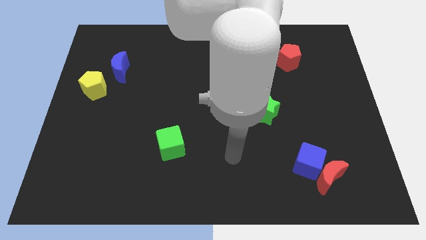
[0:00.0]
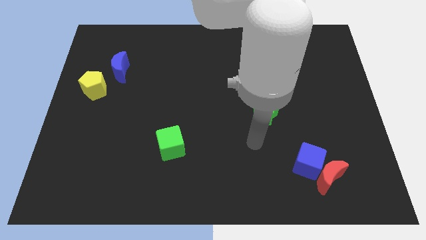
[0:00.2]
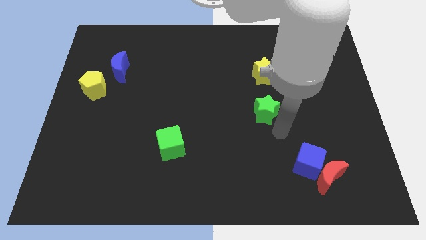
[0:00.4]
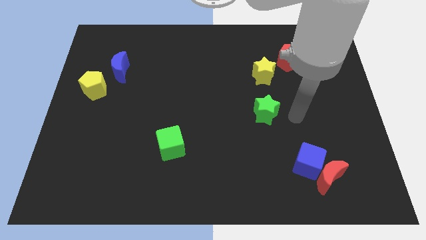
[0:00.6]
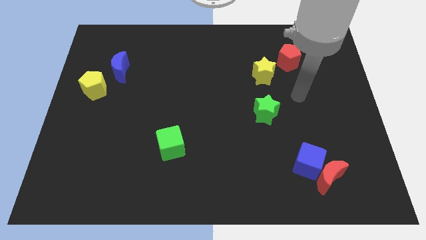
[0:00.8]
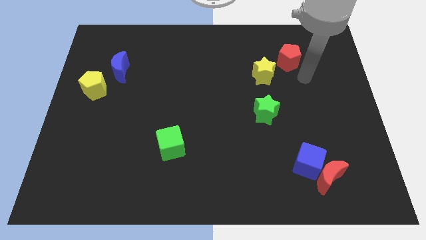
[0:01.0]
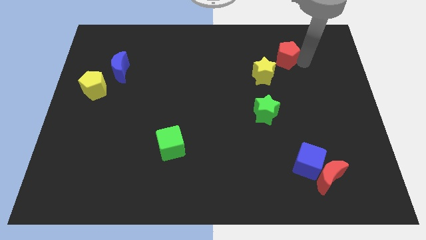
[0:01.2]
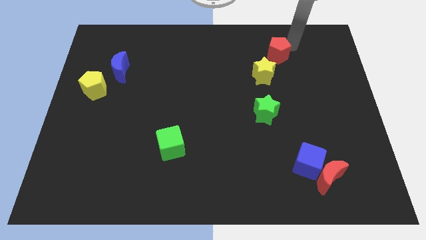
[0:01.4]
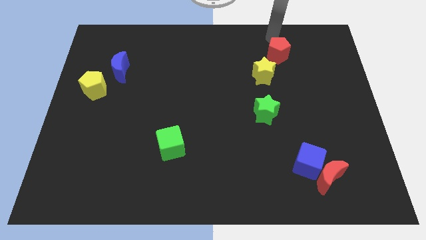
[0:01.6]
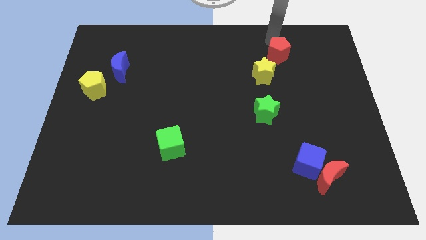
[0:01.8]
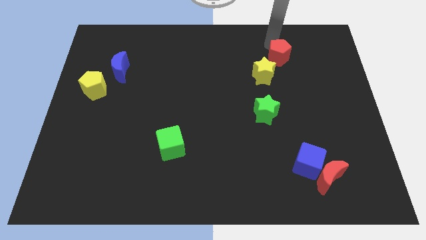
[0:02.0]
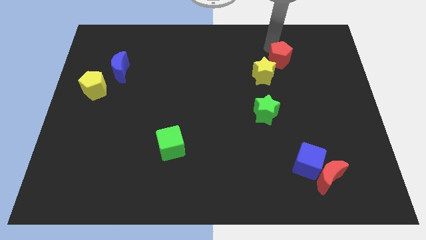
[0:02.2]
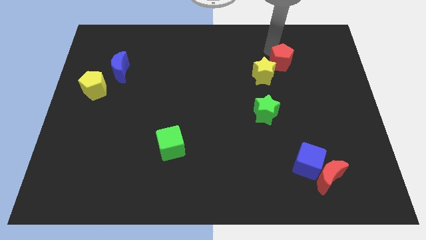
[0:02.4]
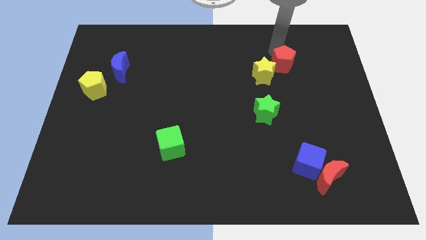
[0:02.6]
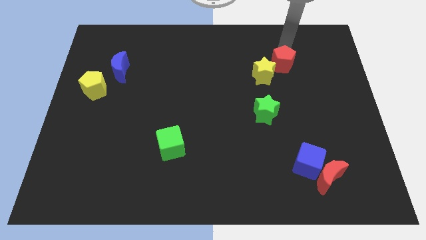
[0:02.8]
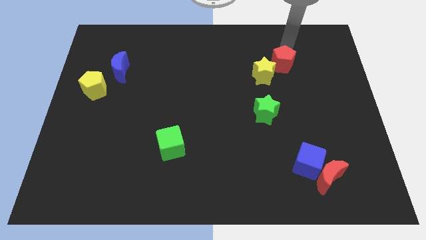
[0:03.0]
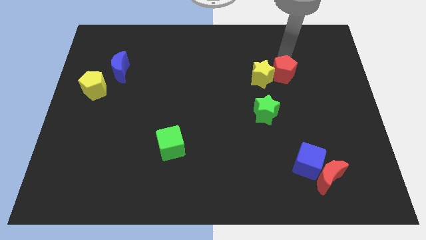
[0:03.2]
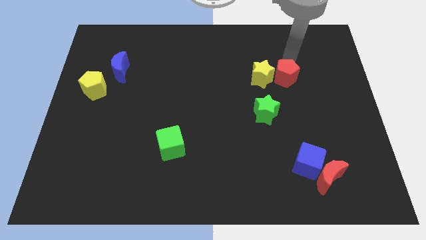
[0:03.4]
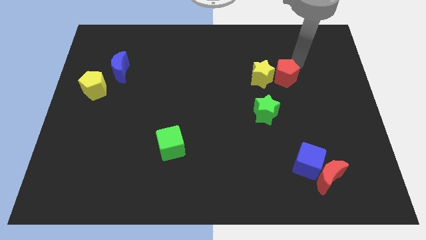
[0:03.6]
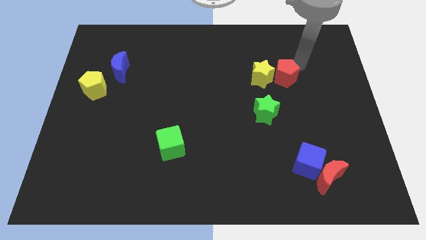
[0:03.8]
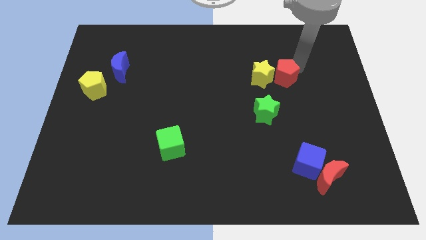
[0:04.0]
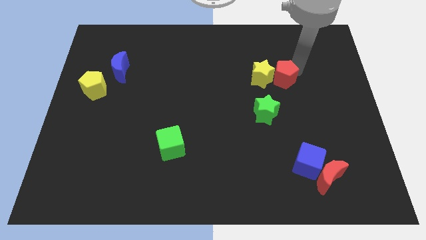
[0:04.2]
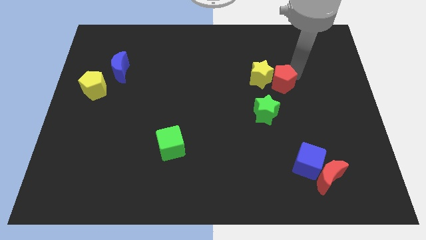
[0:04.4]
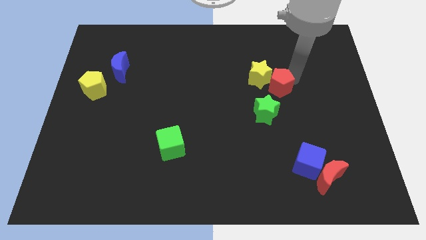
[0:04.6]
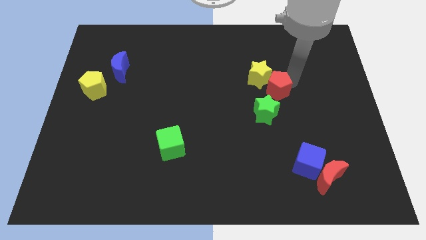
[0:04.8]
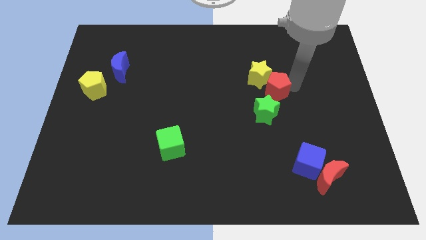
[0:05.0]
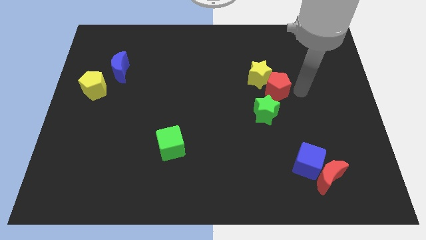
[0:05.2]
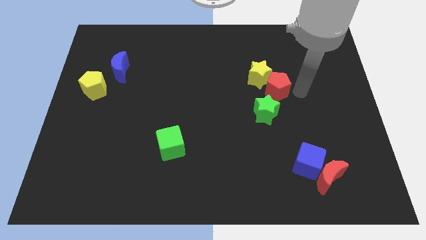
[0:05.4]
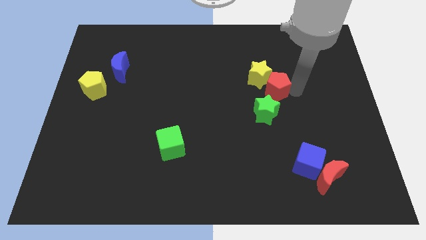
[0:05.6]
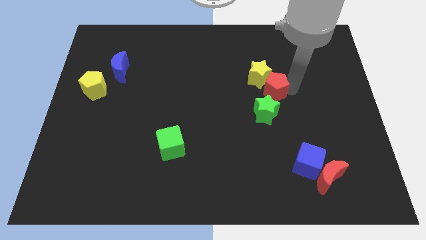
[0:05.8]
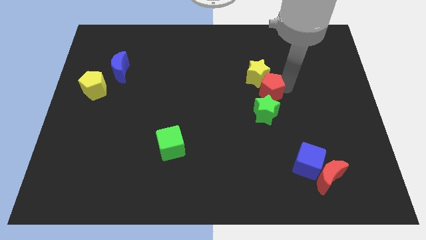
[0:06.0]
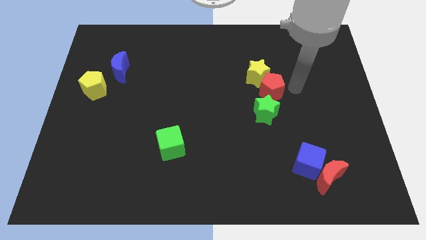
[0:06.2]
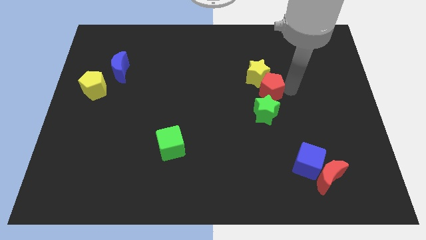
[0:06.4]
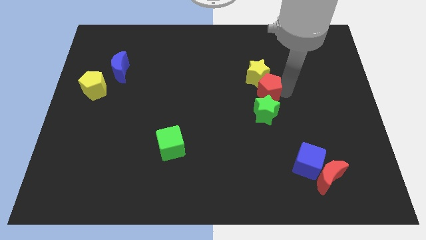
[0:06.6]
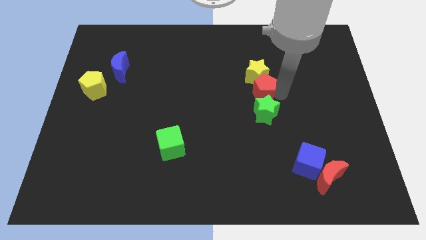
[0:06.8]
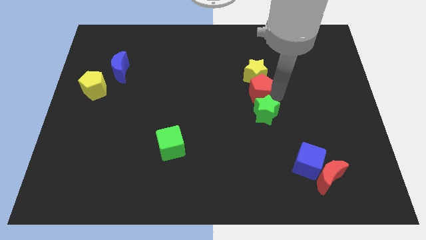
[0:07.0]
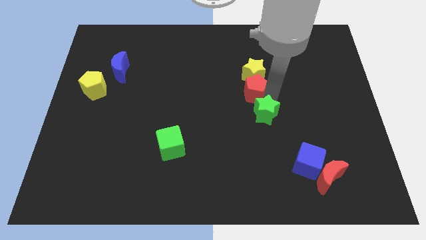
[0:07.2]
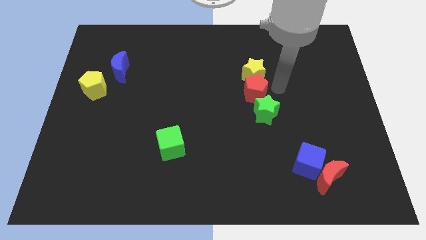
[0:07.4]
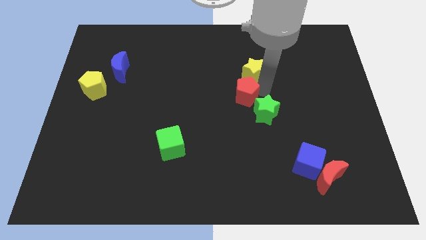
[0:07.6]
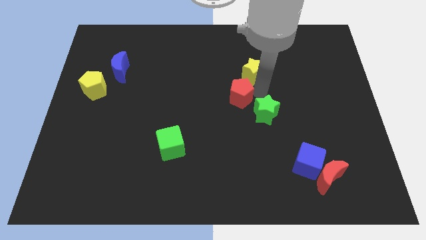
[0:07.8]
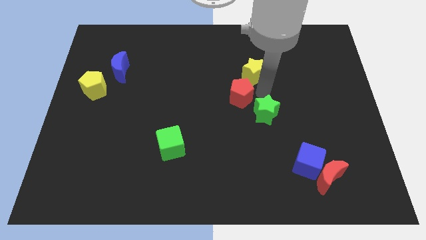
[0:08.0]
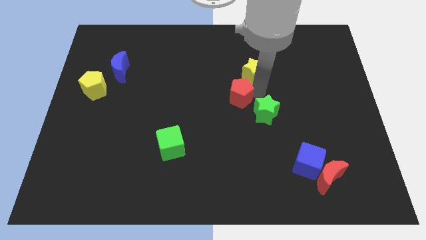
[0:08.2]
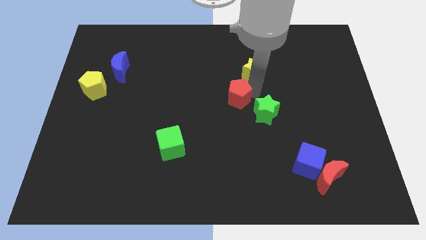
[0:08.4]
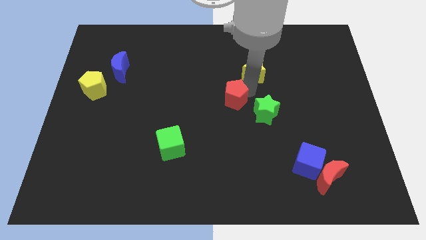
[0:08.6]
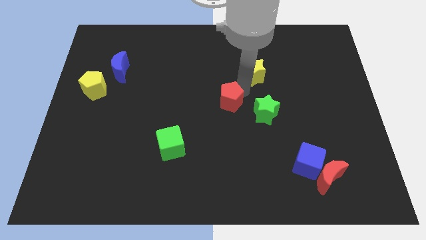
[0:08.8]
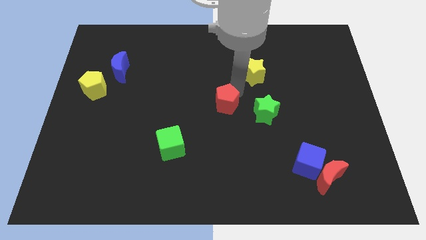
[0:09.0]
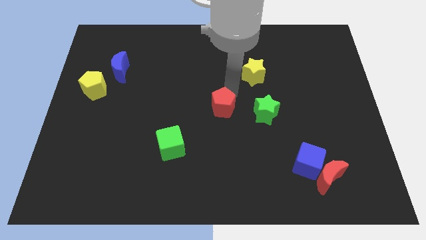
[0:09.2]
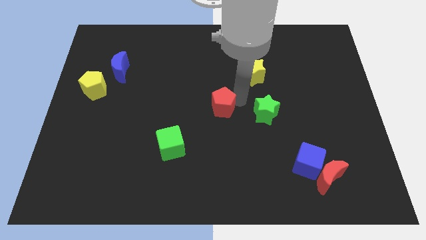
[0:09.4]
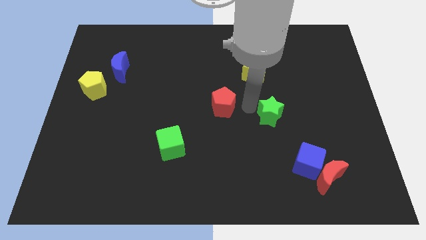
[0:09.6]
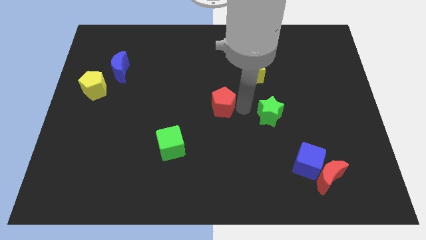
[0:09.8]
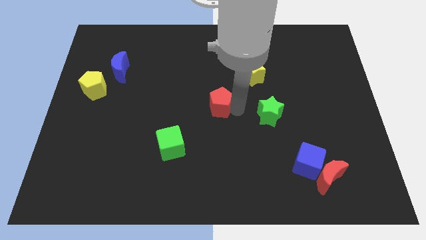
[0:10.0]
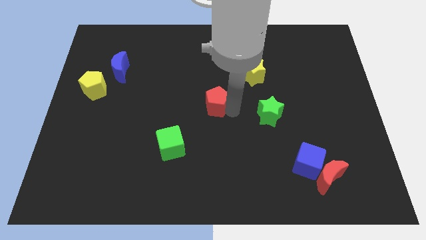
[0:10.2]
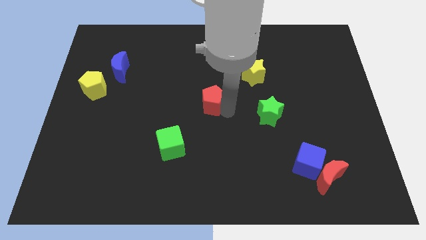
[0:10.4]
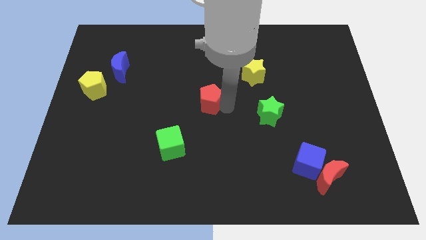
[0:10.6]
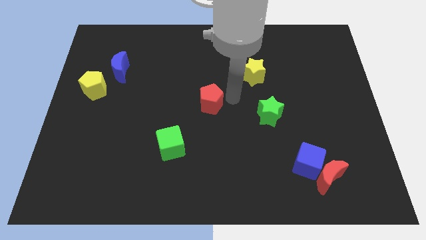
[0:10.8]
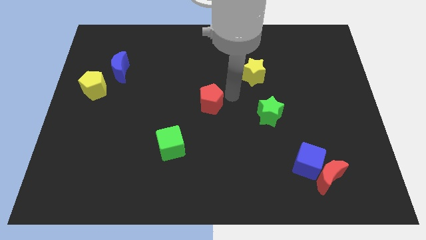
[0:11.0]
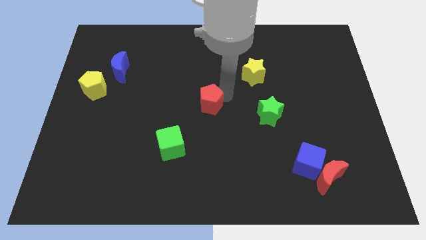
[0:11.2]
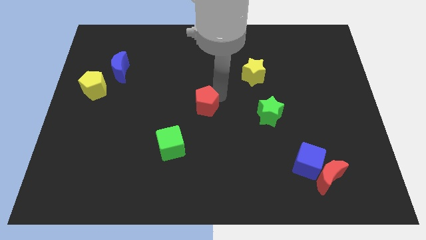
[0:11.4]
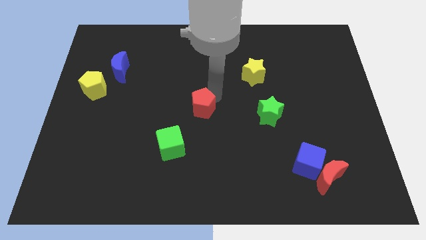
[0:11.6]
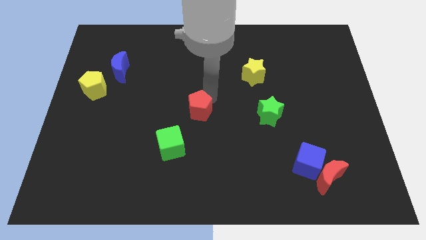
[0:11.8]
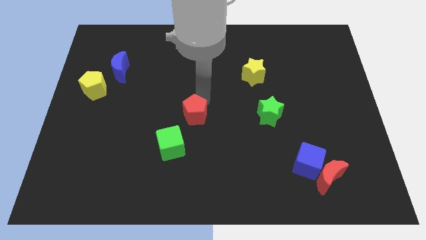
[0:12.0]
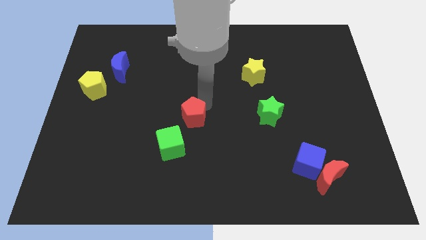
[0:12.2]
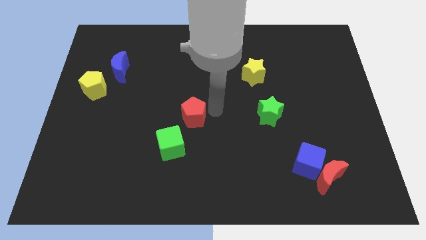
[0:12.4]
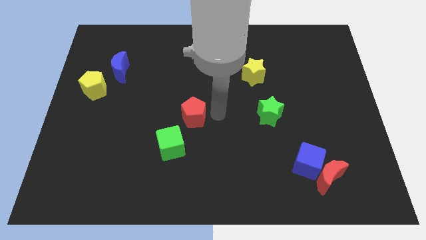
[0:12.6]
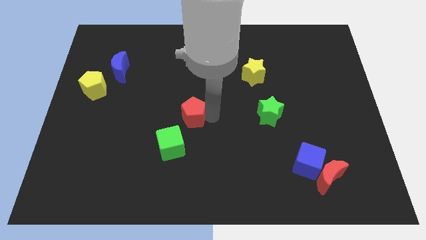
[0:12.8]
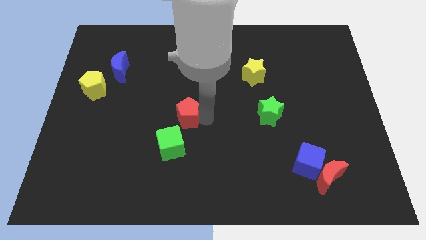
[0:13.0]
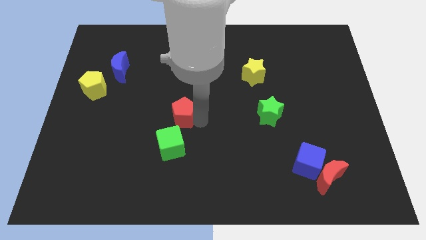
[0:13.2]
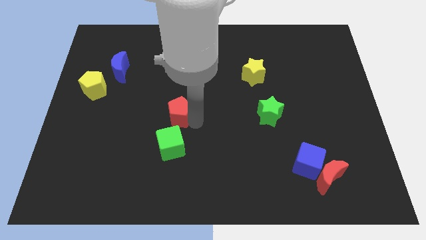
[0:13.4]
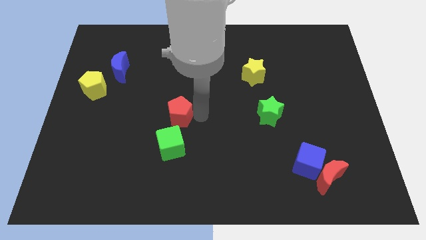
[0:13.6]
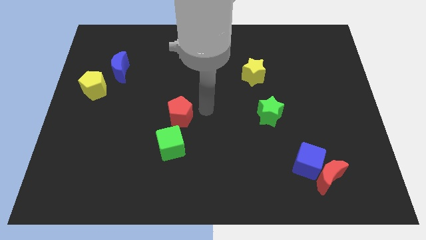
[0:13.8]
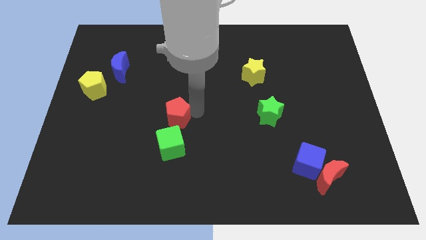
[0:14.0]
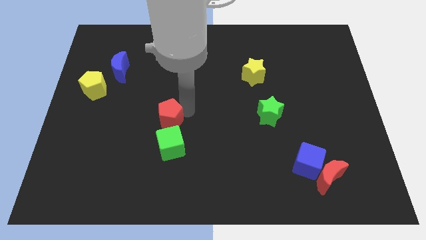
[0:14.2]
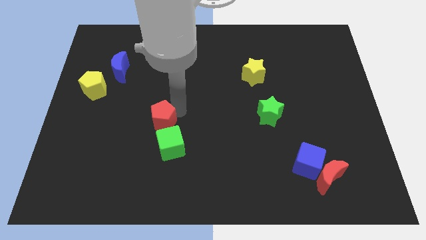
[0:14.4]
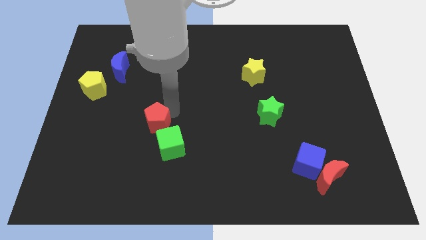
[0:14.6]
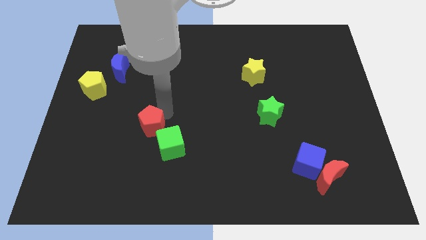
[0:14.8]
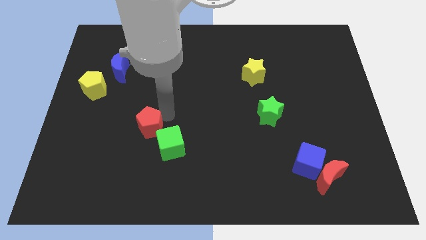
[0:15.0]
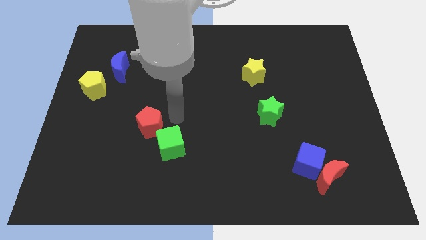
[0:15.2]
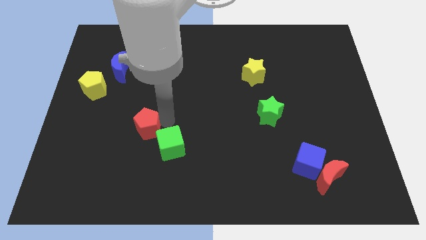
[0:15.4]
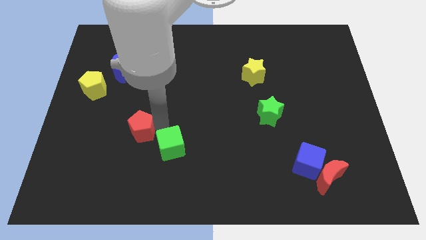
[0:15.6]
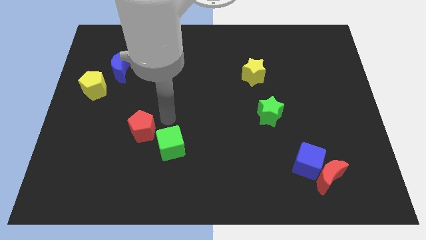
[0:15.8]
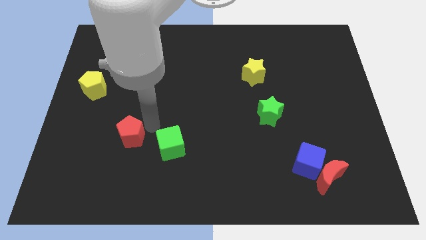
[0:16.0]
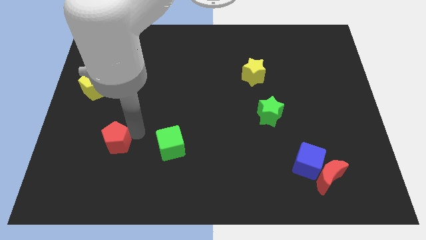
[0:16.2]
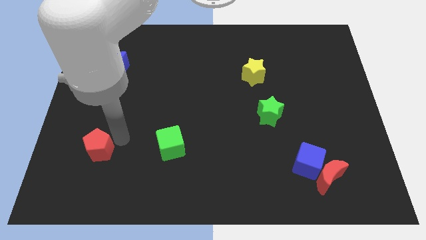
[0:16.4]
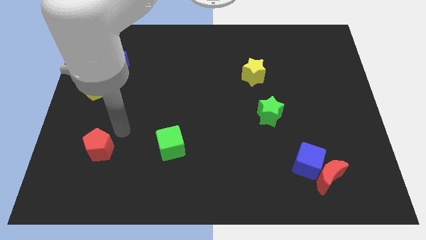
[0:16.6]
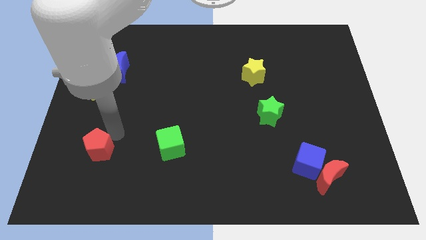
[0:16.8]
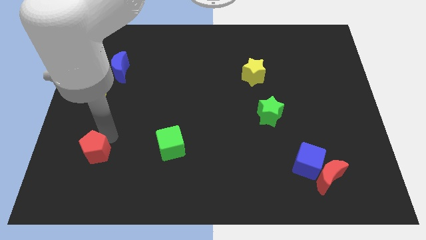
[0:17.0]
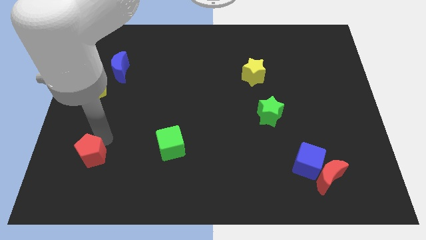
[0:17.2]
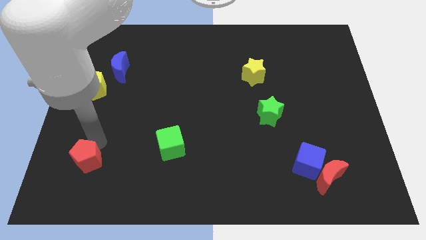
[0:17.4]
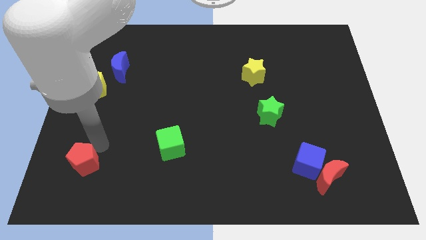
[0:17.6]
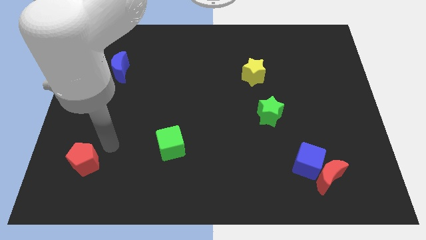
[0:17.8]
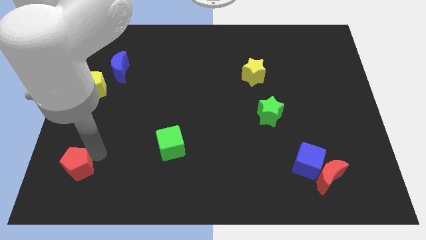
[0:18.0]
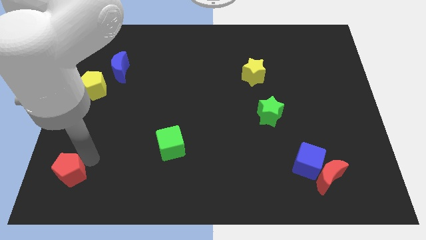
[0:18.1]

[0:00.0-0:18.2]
put the red pentagon to the bottom left corner
